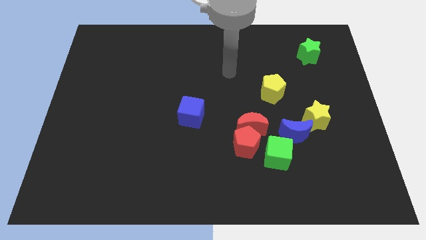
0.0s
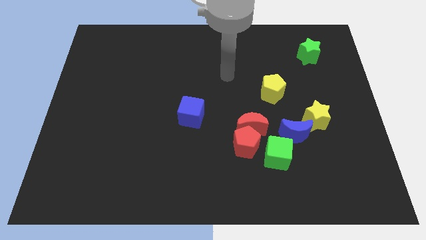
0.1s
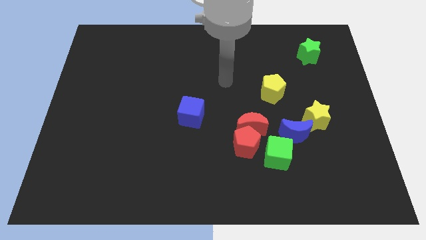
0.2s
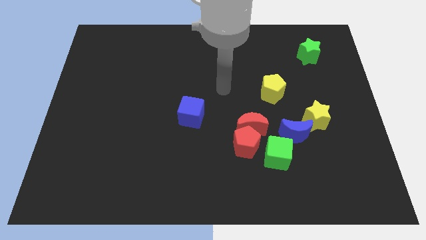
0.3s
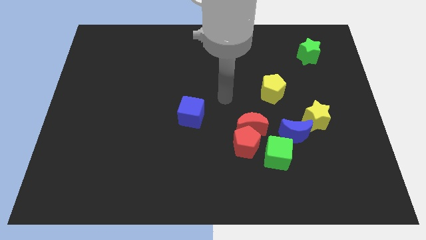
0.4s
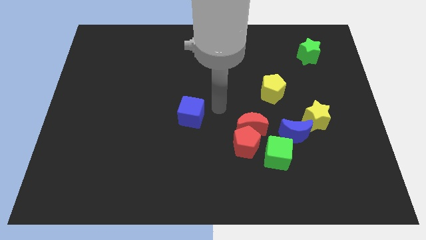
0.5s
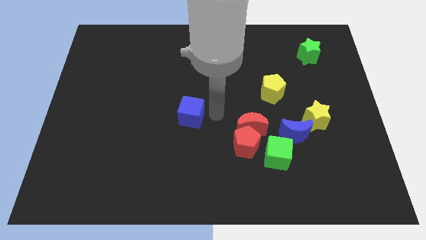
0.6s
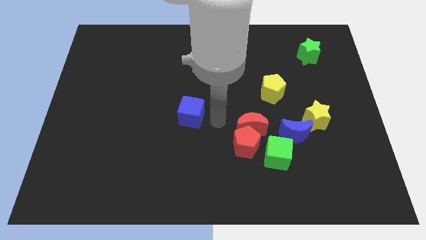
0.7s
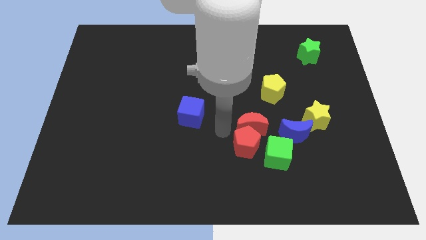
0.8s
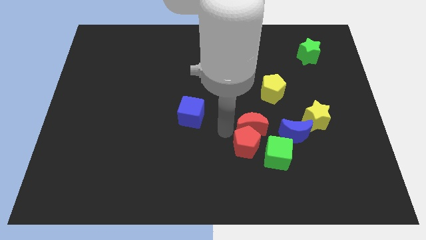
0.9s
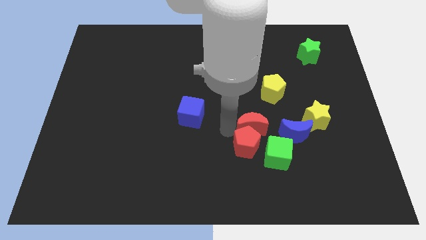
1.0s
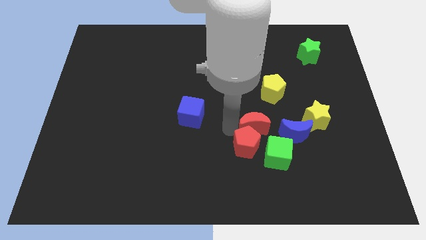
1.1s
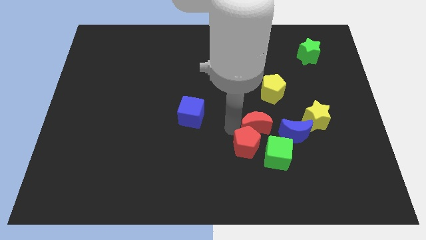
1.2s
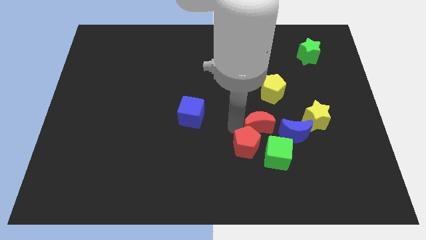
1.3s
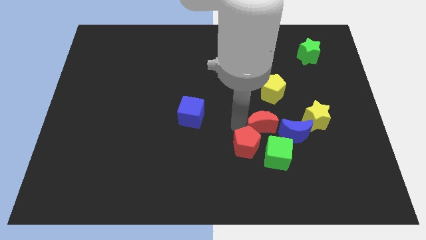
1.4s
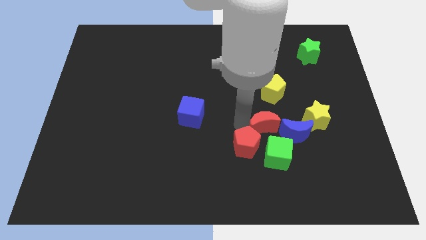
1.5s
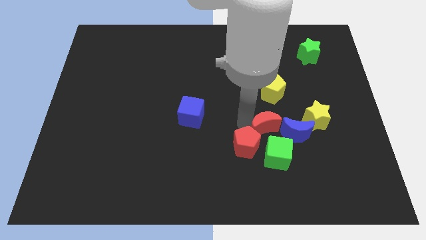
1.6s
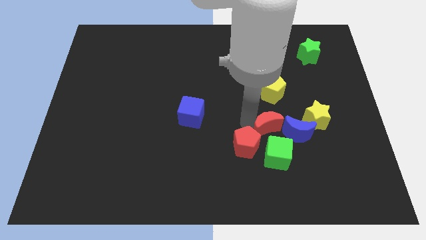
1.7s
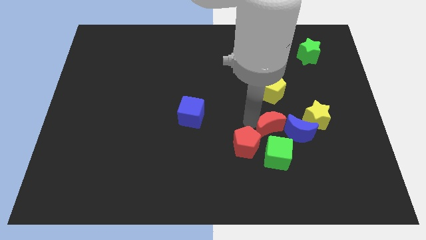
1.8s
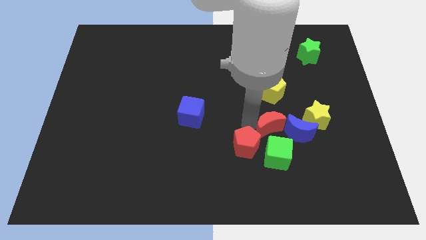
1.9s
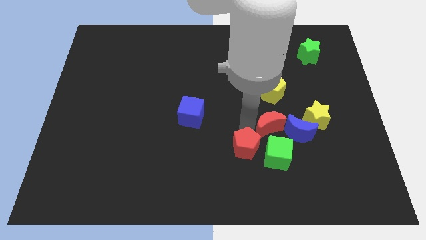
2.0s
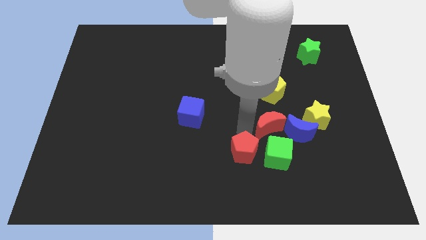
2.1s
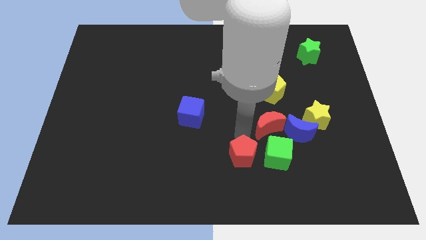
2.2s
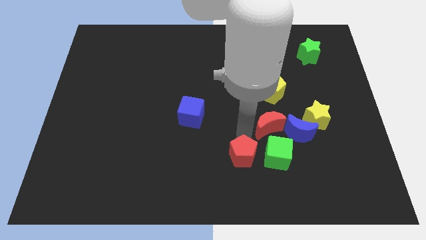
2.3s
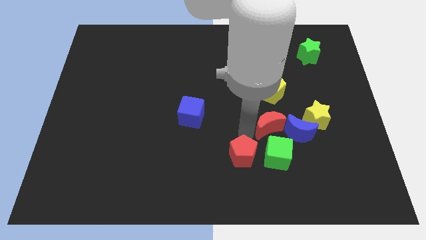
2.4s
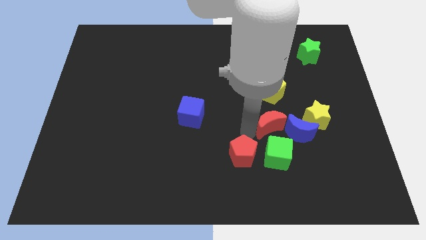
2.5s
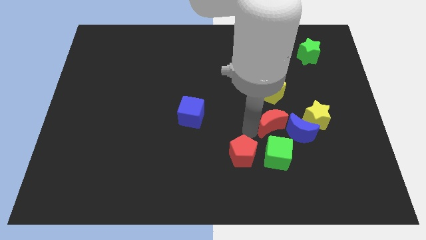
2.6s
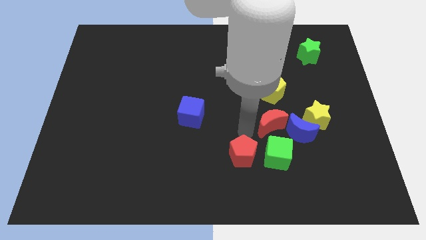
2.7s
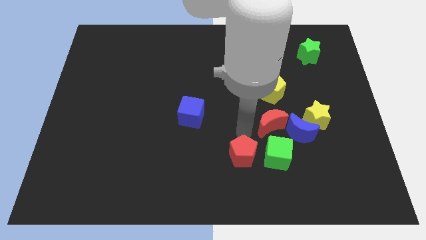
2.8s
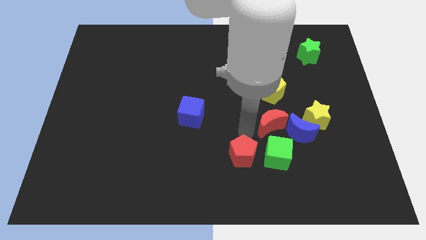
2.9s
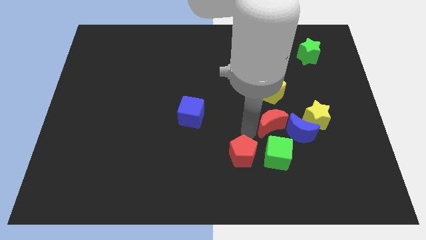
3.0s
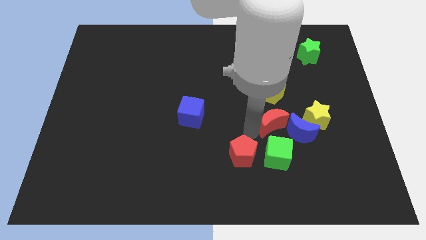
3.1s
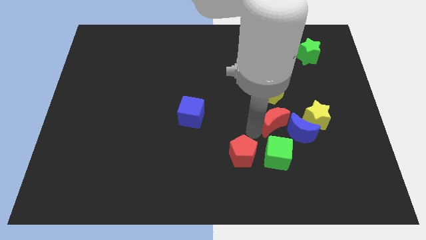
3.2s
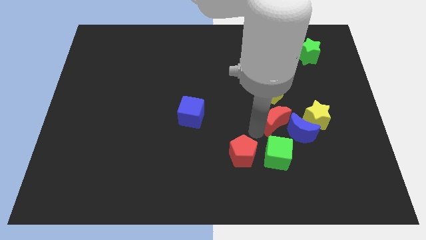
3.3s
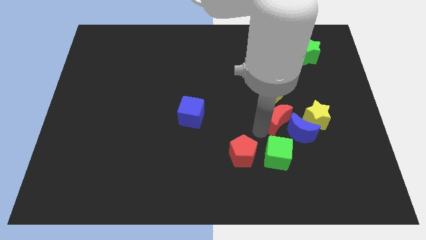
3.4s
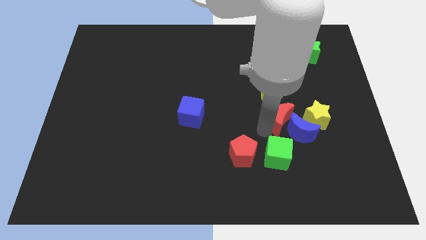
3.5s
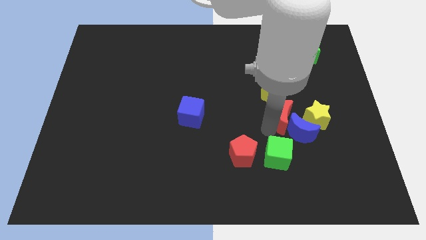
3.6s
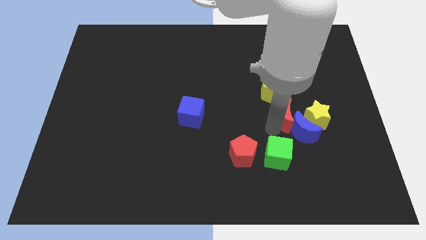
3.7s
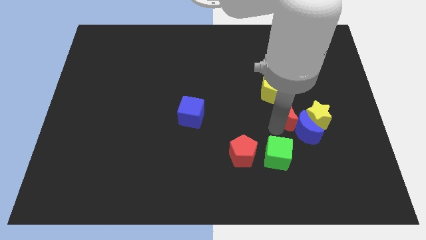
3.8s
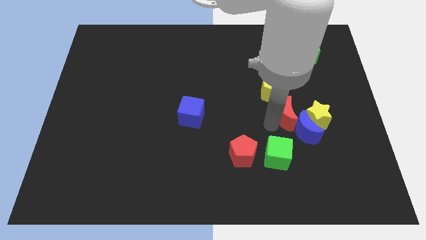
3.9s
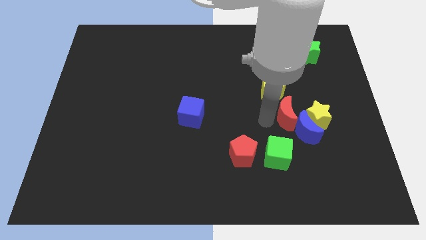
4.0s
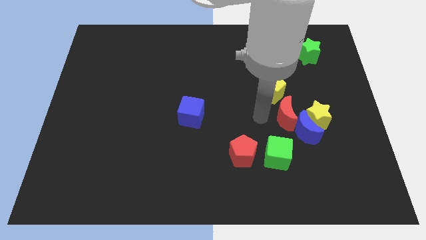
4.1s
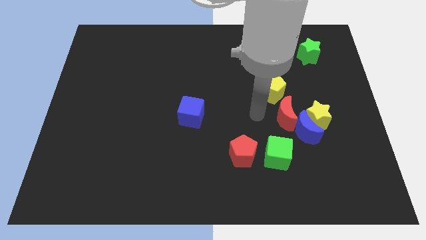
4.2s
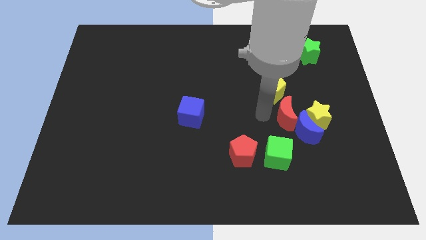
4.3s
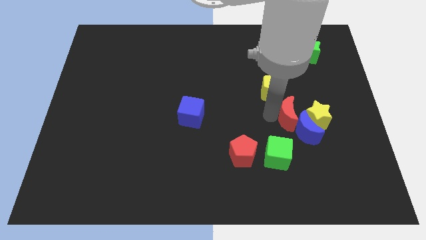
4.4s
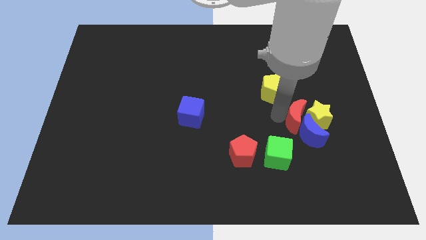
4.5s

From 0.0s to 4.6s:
put the red moon to the yellow star

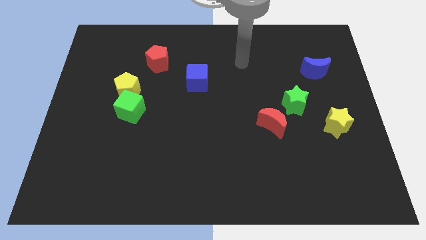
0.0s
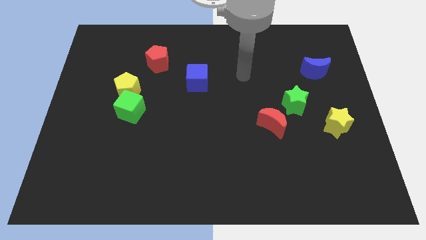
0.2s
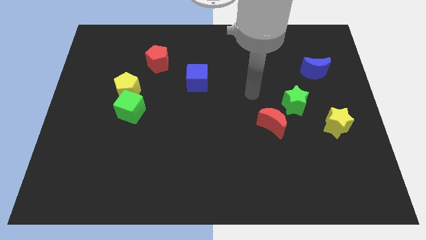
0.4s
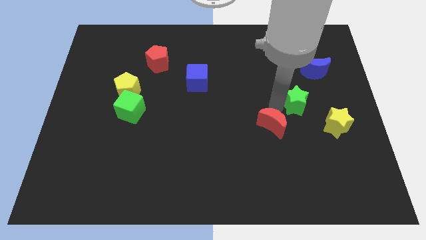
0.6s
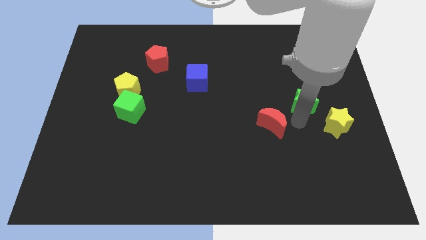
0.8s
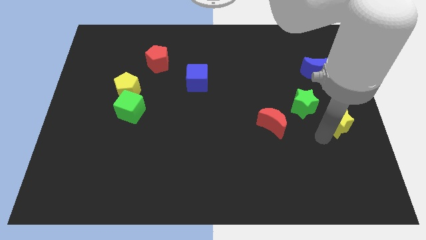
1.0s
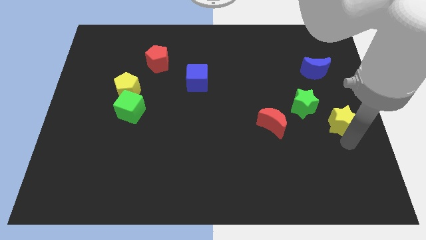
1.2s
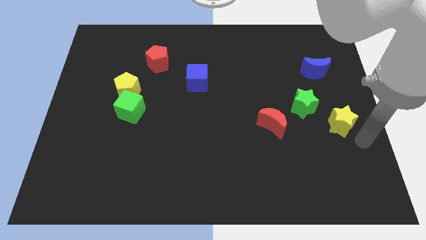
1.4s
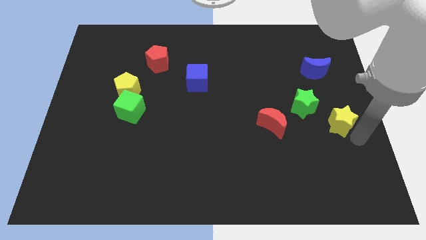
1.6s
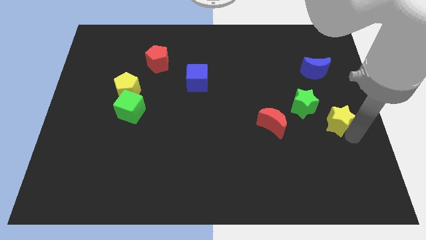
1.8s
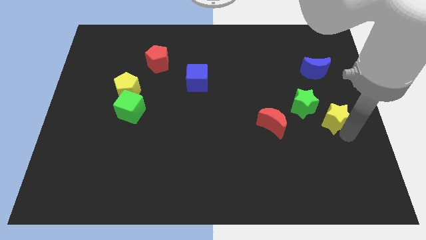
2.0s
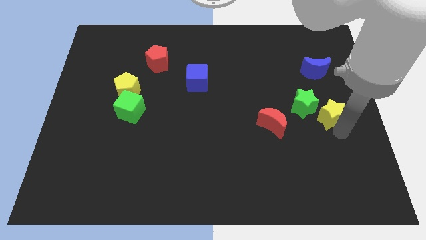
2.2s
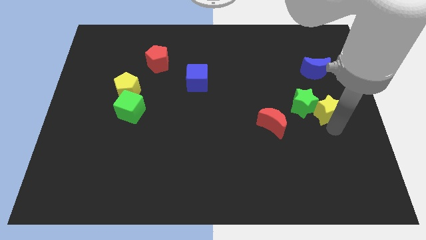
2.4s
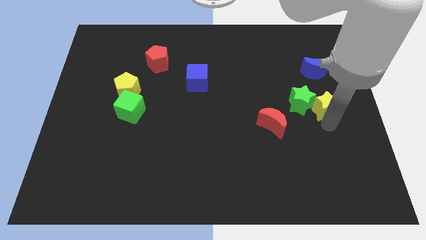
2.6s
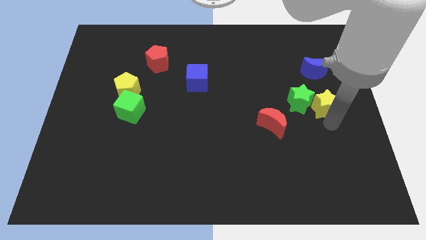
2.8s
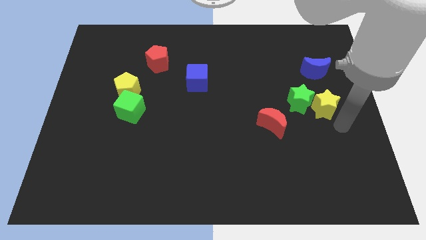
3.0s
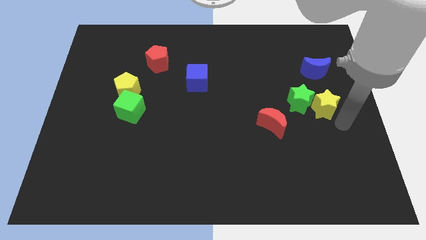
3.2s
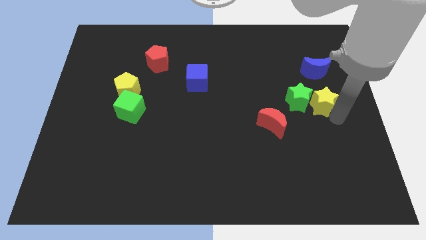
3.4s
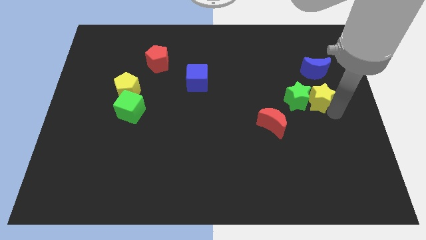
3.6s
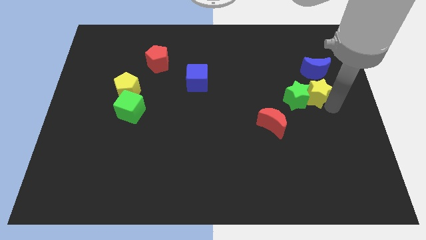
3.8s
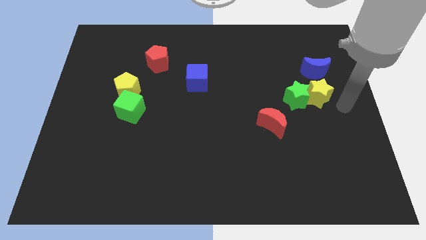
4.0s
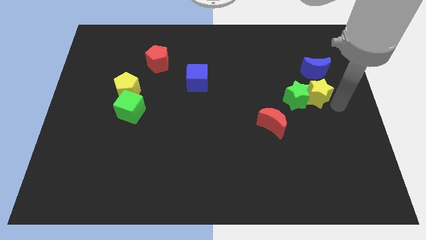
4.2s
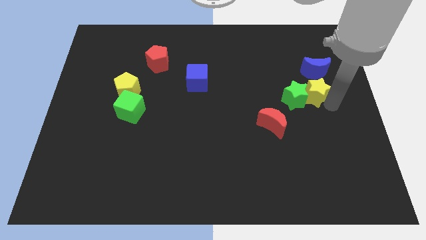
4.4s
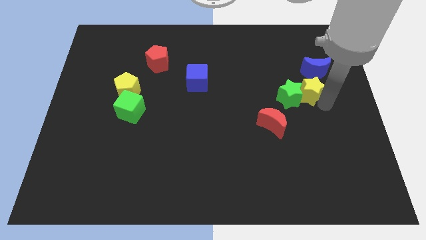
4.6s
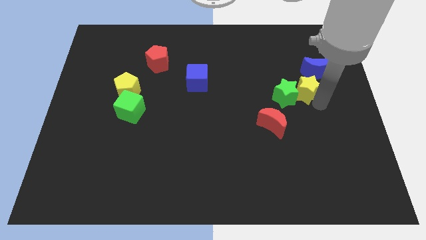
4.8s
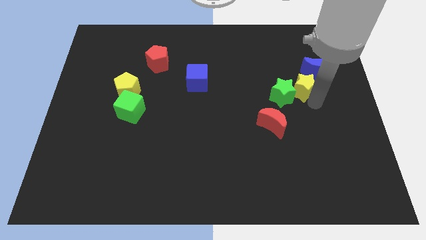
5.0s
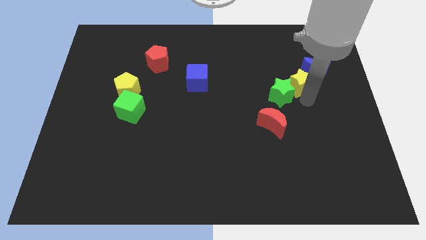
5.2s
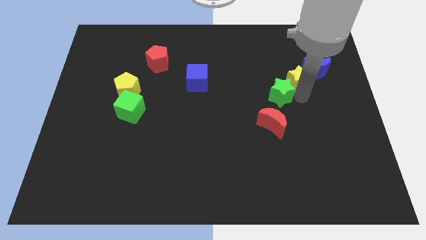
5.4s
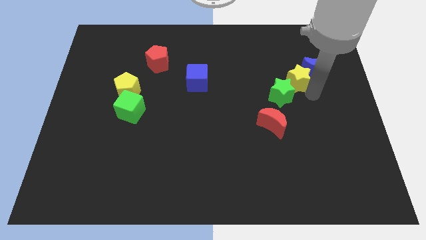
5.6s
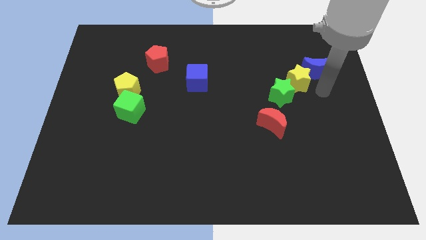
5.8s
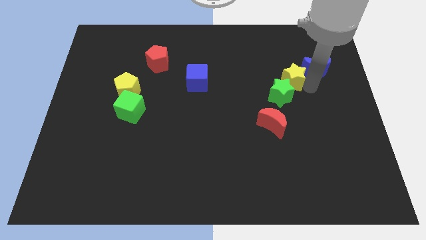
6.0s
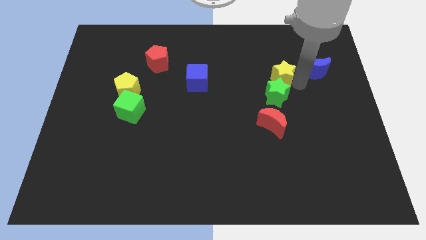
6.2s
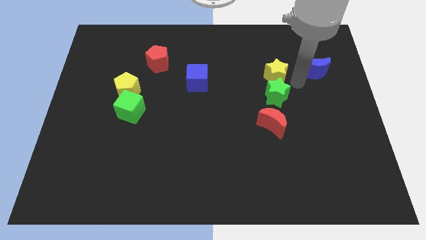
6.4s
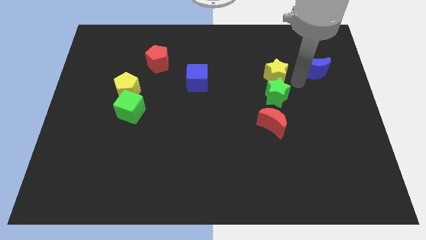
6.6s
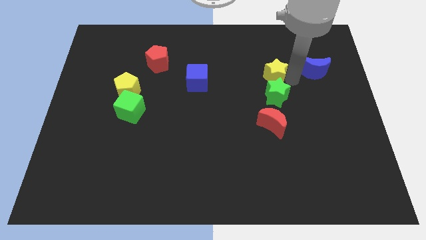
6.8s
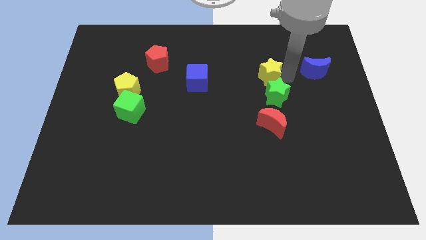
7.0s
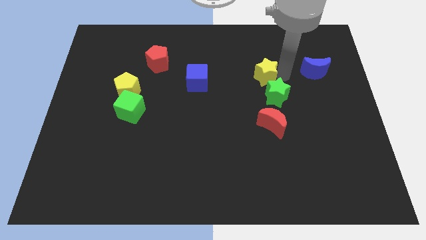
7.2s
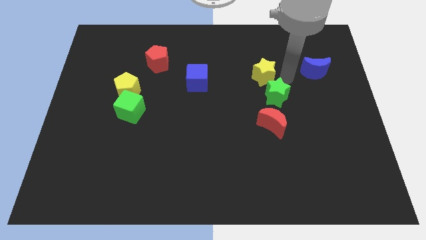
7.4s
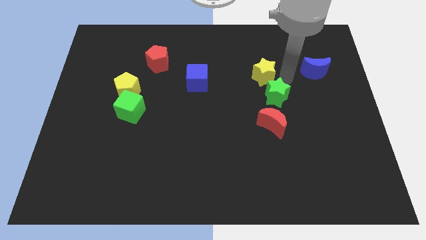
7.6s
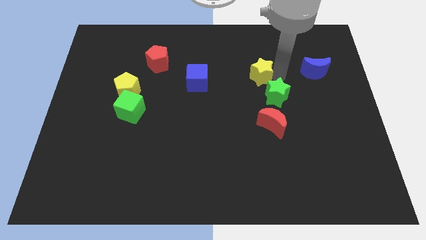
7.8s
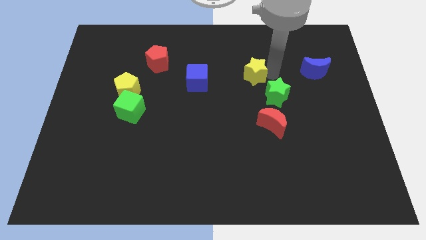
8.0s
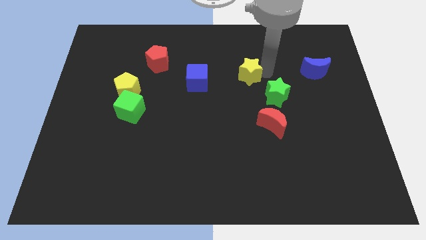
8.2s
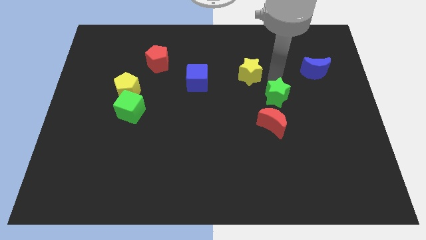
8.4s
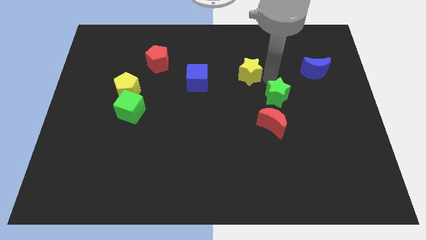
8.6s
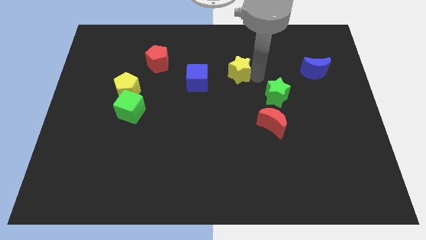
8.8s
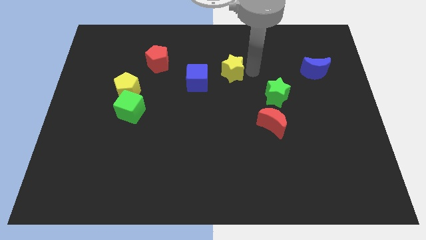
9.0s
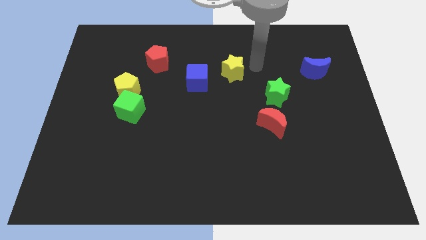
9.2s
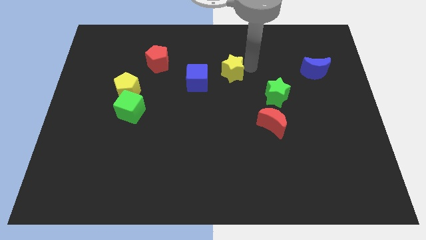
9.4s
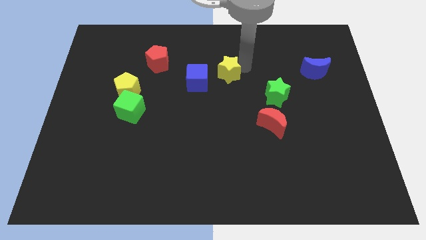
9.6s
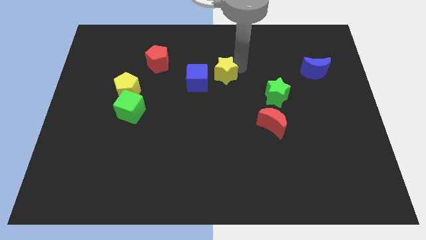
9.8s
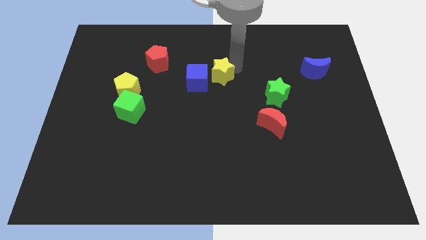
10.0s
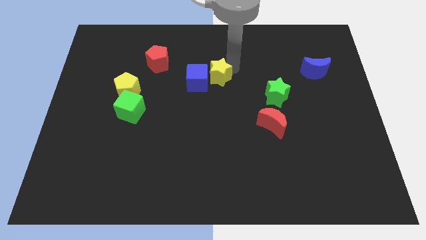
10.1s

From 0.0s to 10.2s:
put the yellow star towards the blue cube
